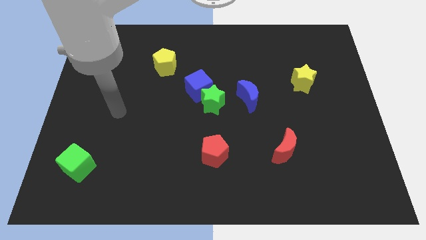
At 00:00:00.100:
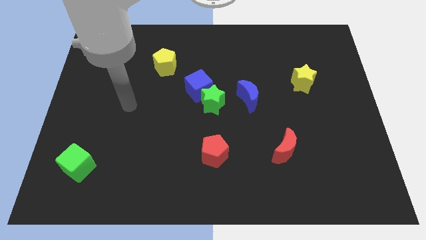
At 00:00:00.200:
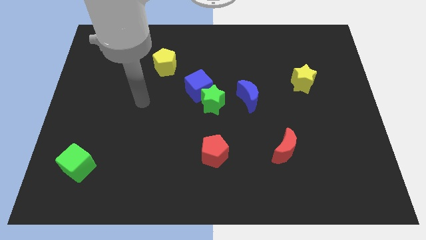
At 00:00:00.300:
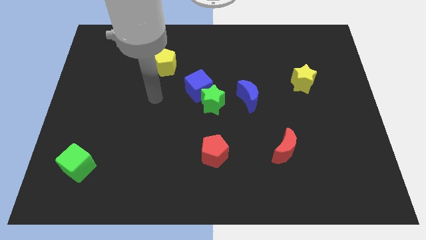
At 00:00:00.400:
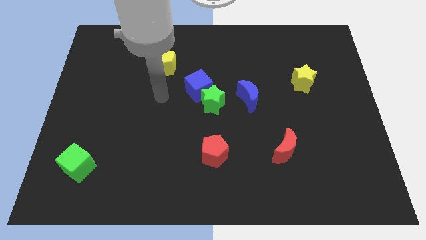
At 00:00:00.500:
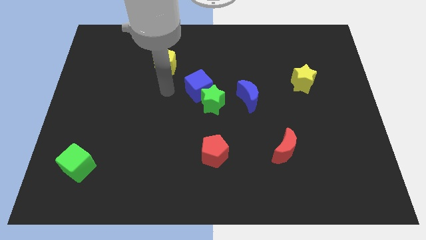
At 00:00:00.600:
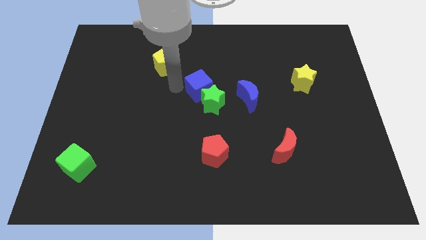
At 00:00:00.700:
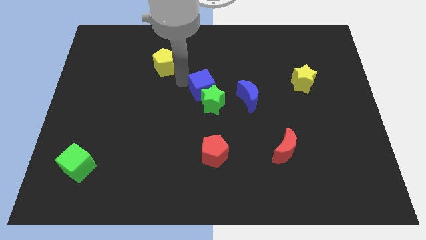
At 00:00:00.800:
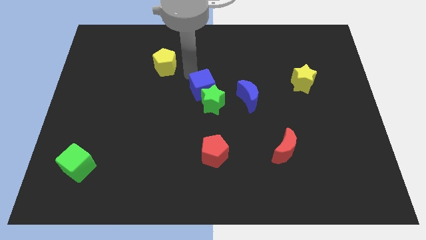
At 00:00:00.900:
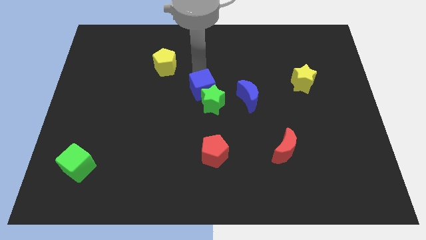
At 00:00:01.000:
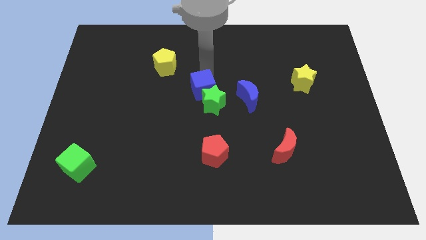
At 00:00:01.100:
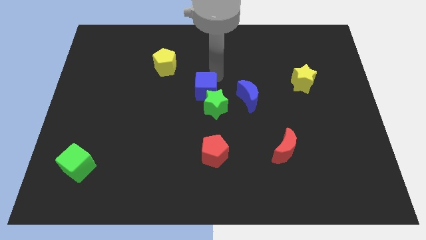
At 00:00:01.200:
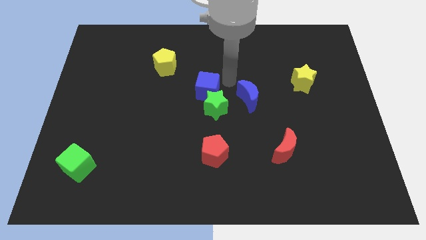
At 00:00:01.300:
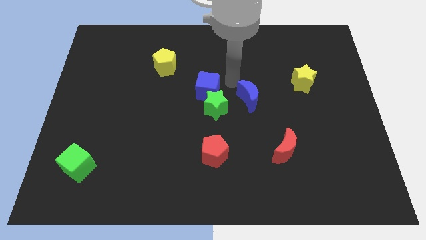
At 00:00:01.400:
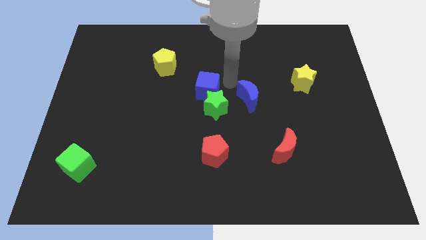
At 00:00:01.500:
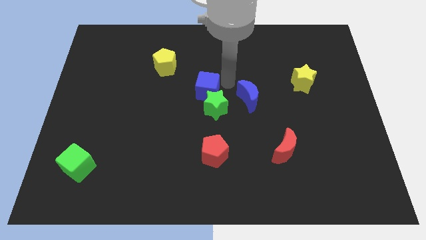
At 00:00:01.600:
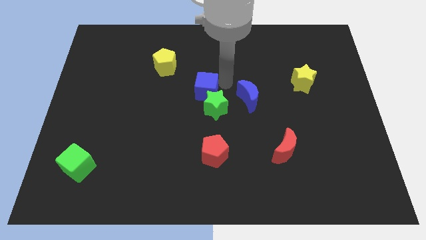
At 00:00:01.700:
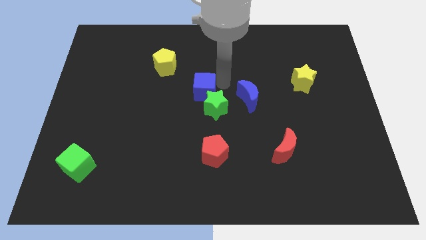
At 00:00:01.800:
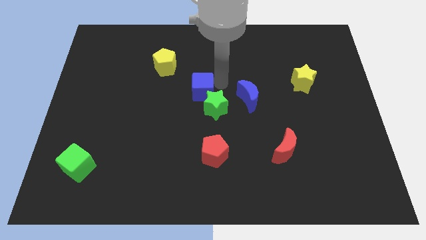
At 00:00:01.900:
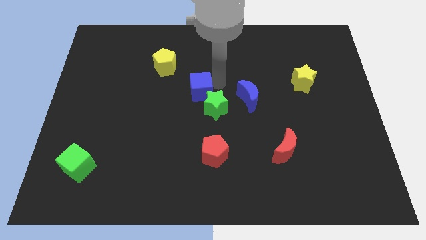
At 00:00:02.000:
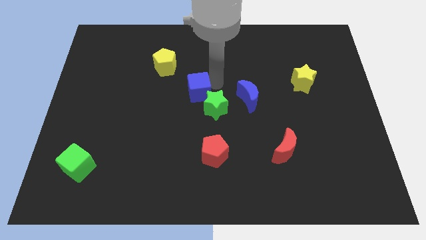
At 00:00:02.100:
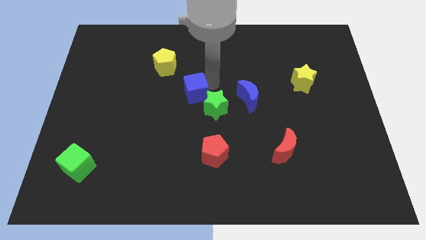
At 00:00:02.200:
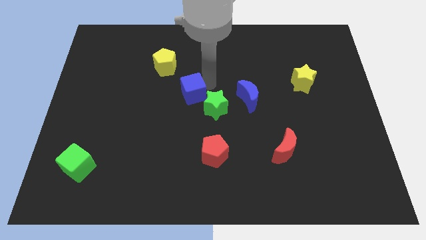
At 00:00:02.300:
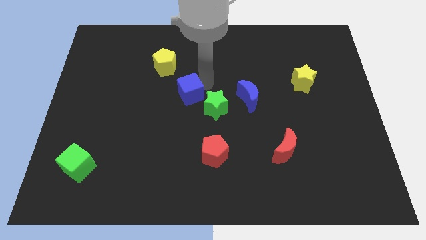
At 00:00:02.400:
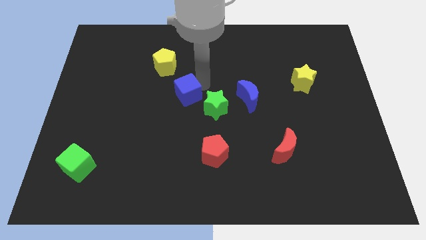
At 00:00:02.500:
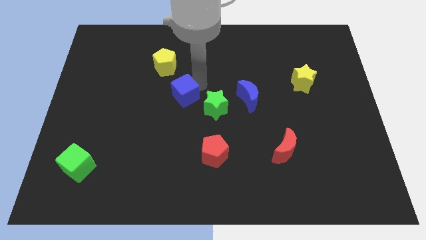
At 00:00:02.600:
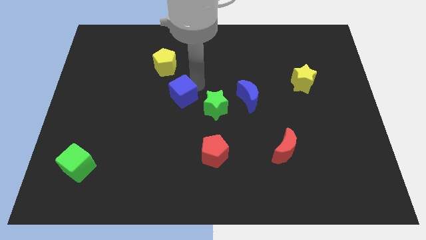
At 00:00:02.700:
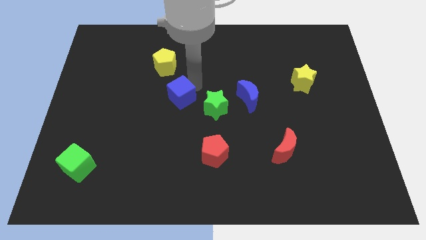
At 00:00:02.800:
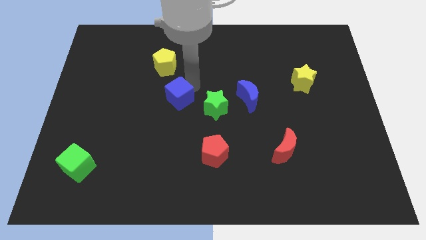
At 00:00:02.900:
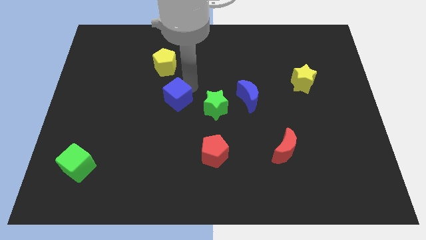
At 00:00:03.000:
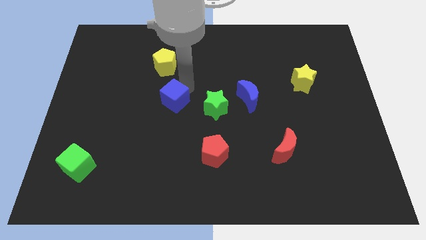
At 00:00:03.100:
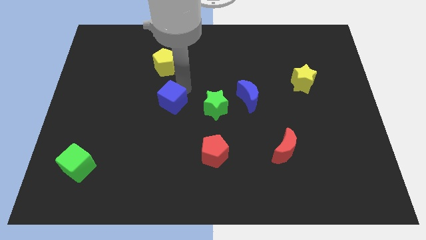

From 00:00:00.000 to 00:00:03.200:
push the blue cube a bit diagonally down and left

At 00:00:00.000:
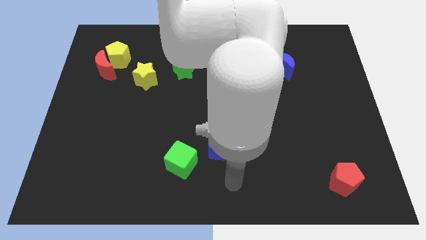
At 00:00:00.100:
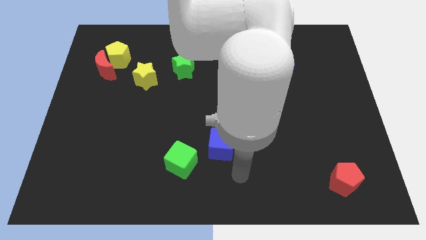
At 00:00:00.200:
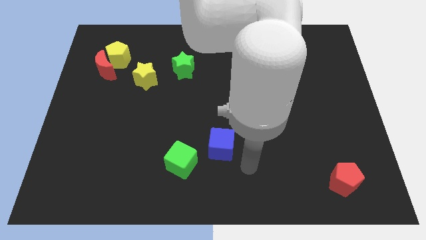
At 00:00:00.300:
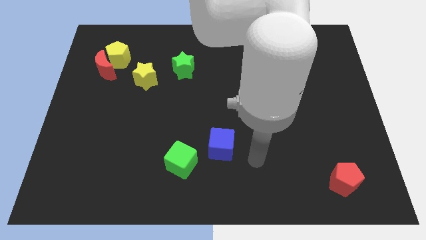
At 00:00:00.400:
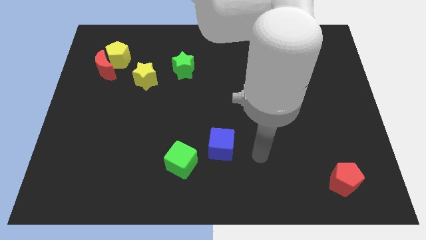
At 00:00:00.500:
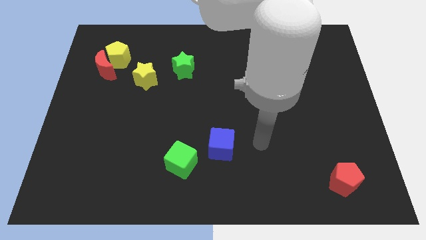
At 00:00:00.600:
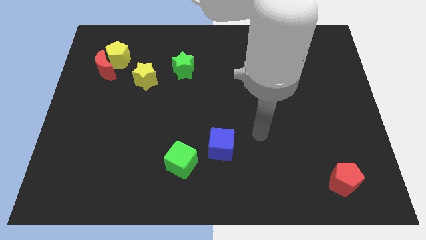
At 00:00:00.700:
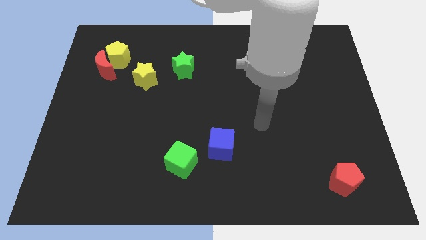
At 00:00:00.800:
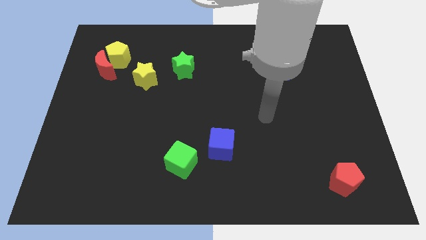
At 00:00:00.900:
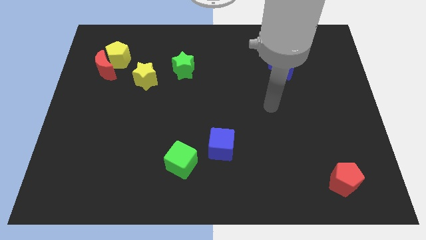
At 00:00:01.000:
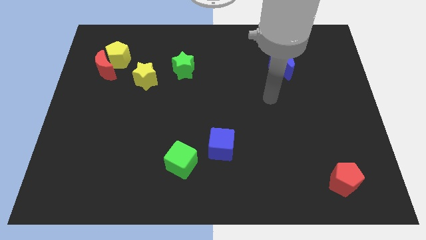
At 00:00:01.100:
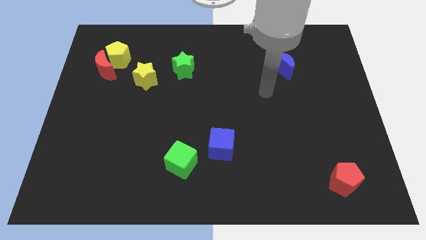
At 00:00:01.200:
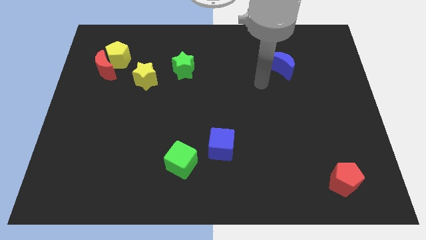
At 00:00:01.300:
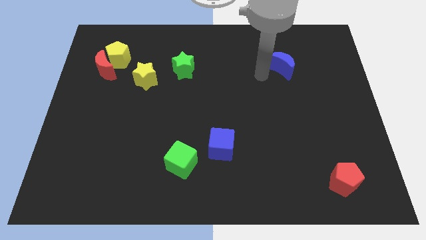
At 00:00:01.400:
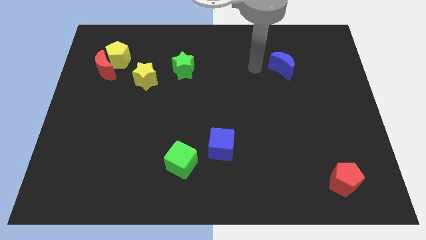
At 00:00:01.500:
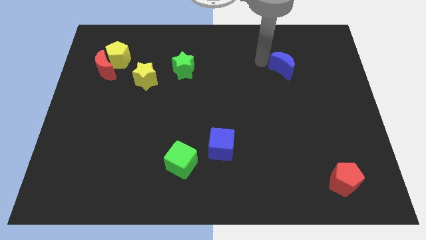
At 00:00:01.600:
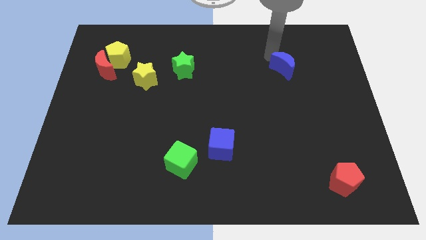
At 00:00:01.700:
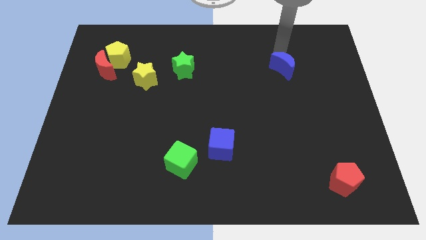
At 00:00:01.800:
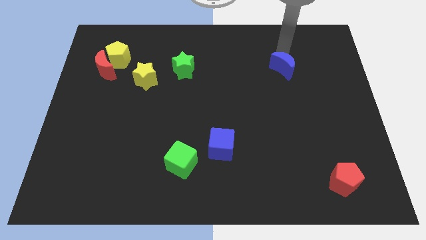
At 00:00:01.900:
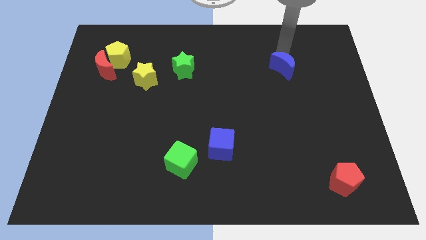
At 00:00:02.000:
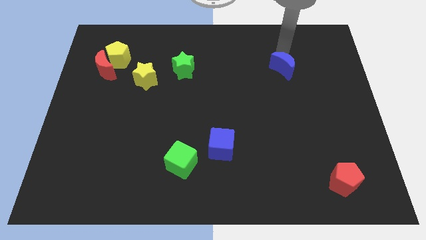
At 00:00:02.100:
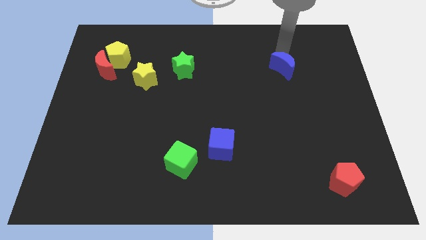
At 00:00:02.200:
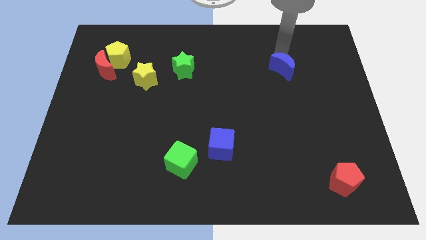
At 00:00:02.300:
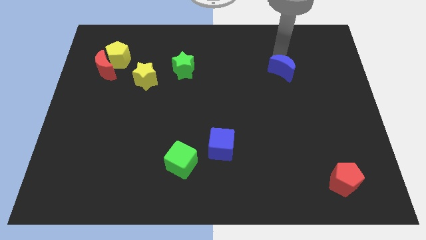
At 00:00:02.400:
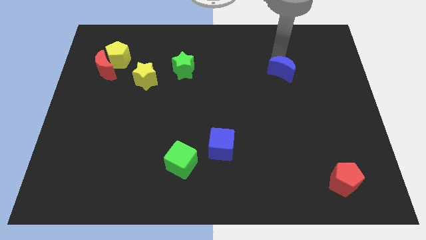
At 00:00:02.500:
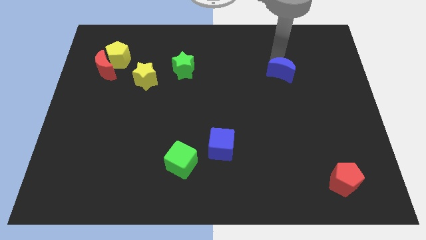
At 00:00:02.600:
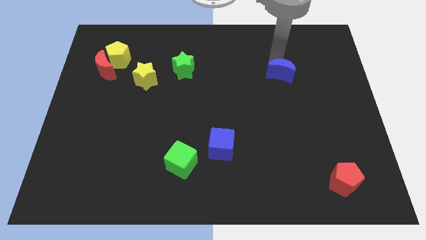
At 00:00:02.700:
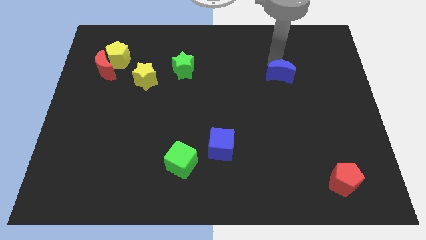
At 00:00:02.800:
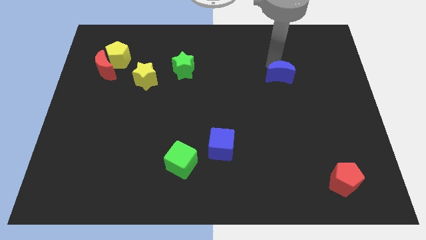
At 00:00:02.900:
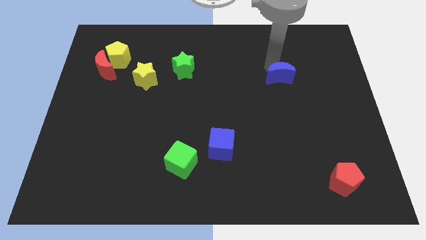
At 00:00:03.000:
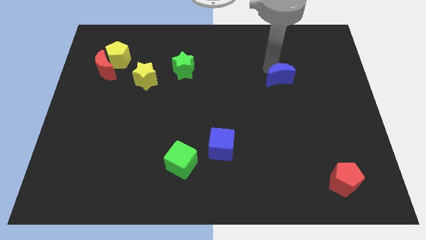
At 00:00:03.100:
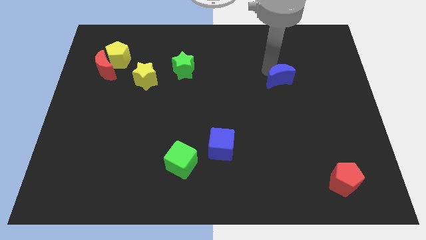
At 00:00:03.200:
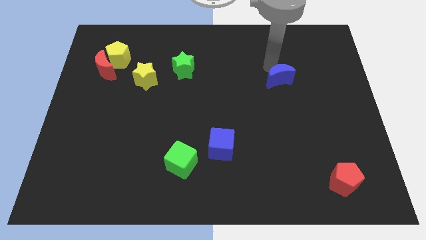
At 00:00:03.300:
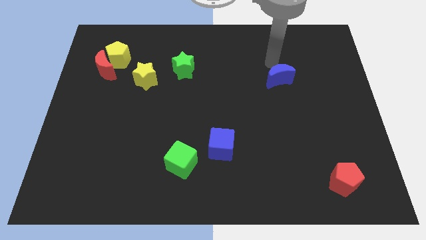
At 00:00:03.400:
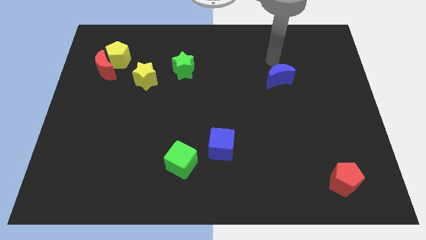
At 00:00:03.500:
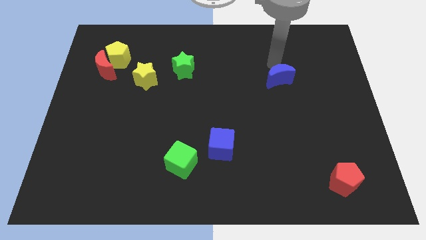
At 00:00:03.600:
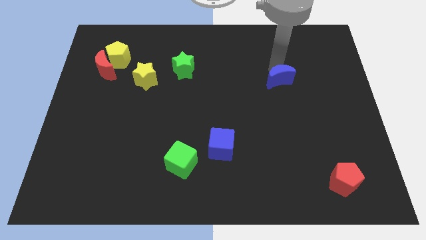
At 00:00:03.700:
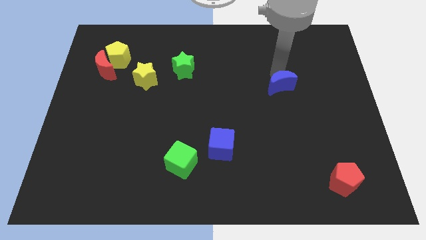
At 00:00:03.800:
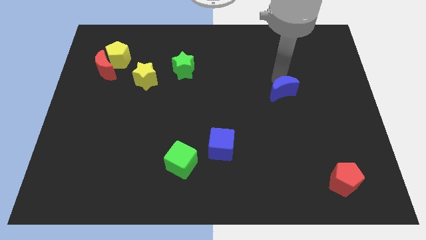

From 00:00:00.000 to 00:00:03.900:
push the blue moon downwards slightly

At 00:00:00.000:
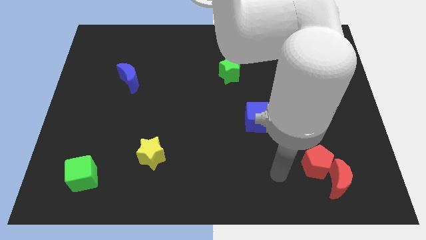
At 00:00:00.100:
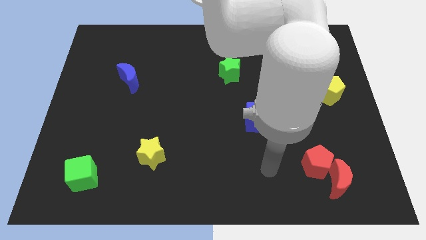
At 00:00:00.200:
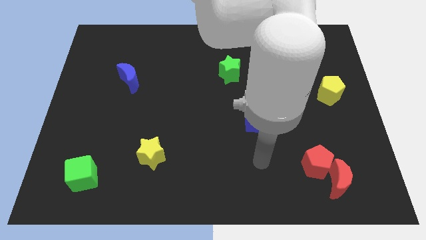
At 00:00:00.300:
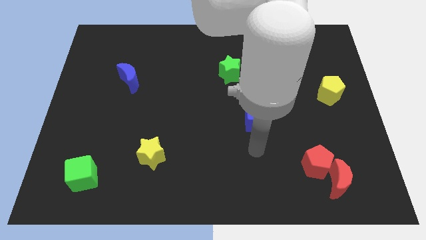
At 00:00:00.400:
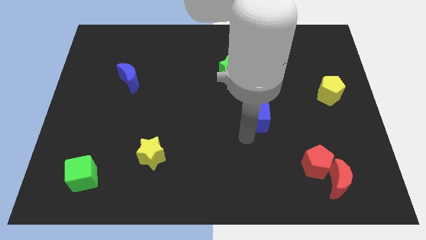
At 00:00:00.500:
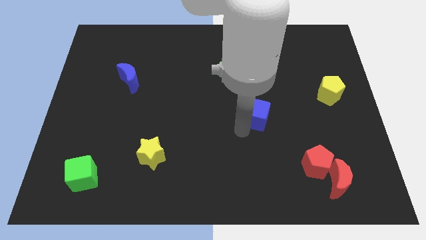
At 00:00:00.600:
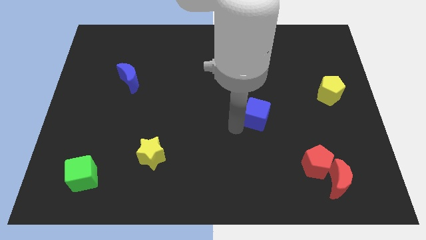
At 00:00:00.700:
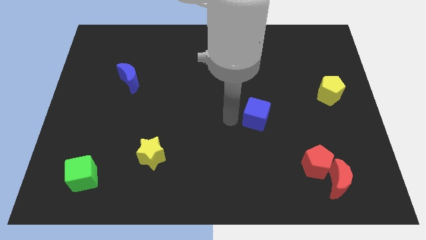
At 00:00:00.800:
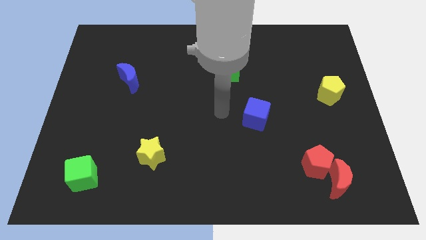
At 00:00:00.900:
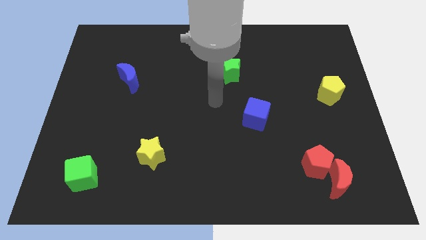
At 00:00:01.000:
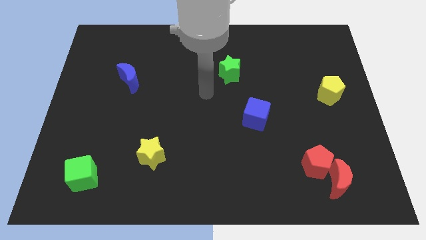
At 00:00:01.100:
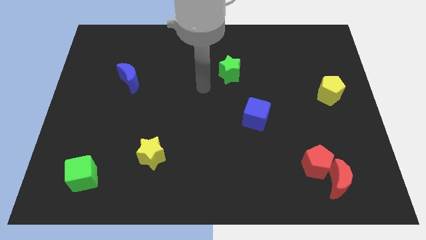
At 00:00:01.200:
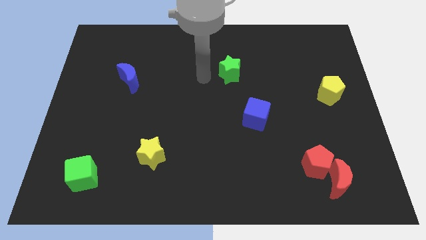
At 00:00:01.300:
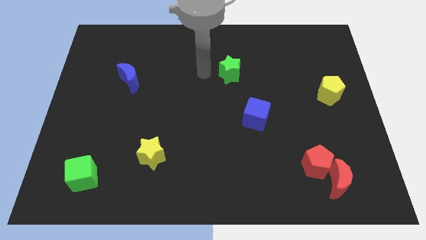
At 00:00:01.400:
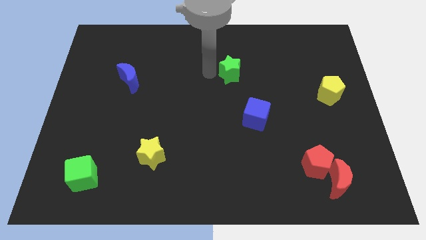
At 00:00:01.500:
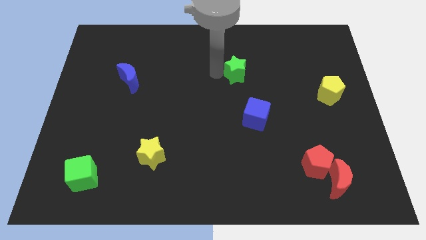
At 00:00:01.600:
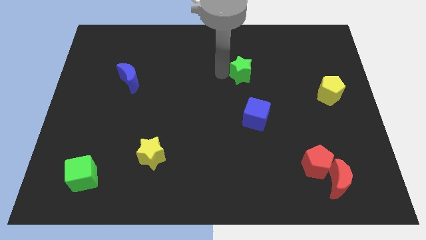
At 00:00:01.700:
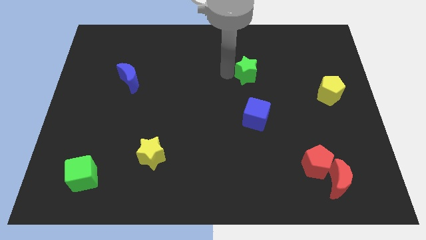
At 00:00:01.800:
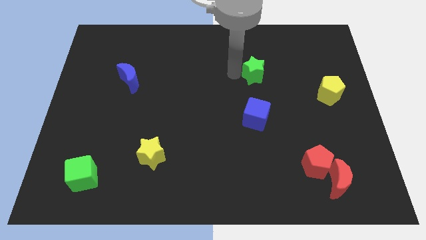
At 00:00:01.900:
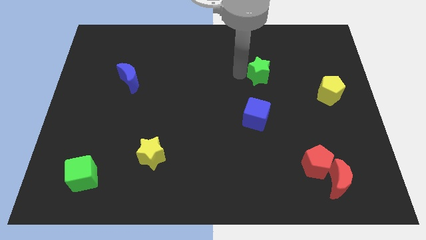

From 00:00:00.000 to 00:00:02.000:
slightly slide the green star right
